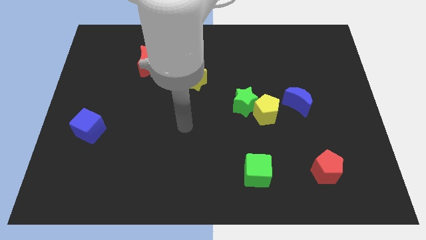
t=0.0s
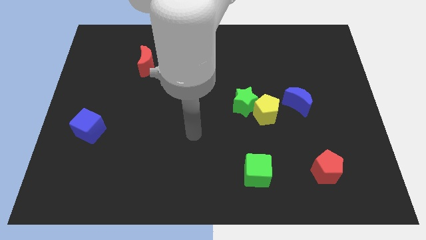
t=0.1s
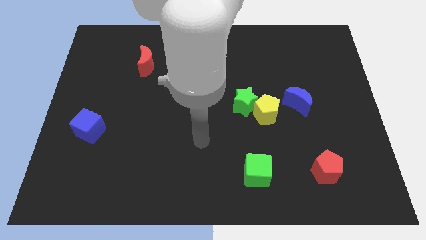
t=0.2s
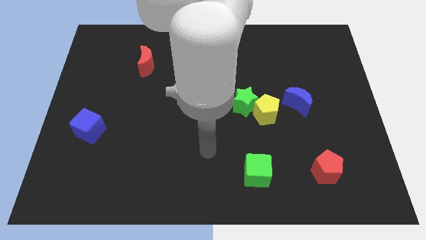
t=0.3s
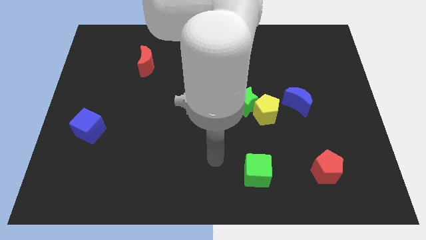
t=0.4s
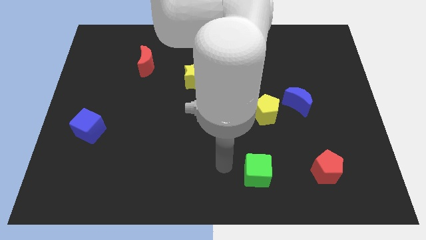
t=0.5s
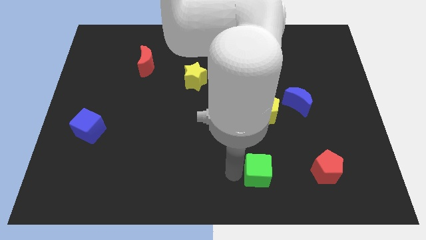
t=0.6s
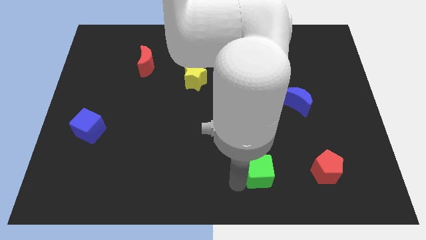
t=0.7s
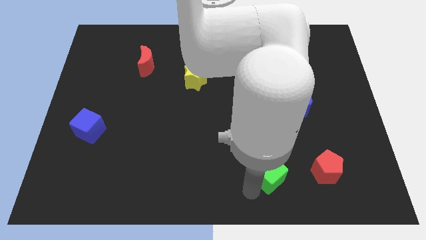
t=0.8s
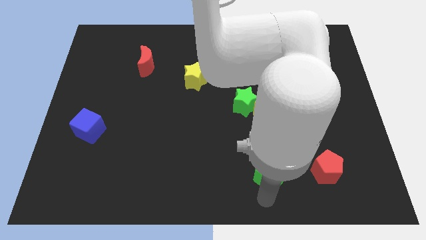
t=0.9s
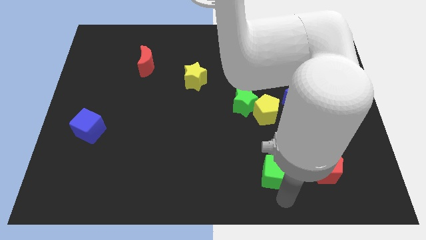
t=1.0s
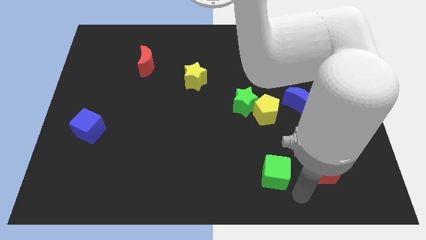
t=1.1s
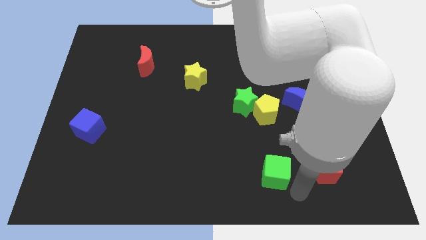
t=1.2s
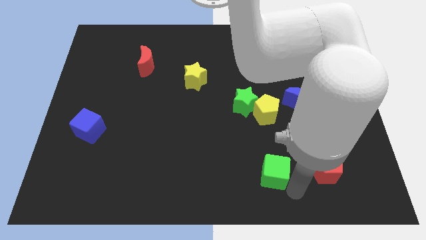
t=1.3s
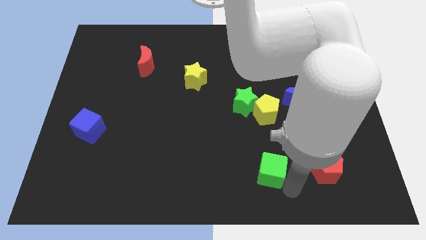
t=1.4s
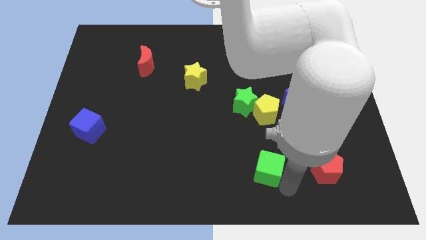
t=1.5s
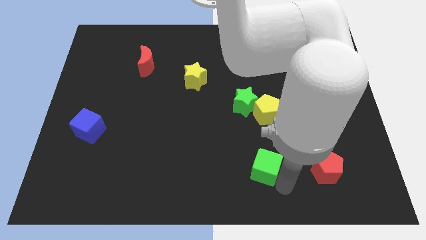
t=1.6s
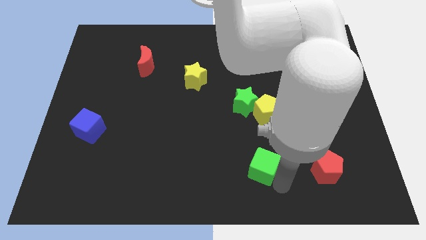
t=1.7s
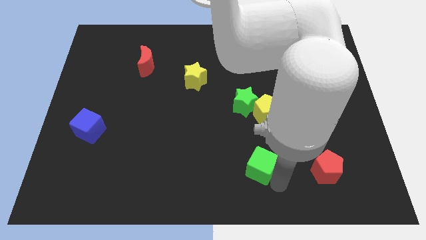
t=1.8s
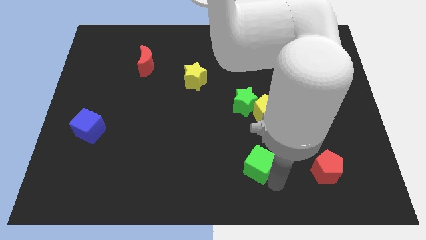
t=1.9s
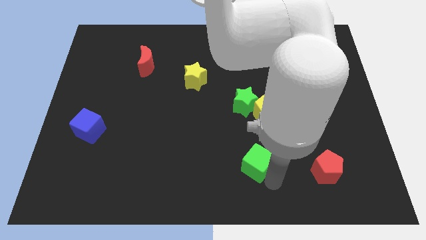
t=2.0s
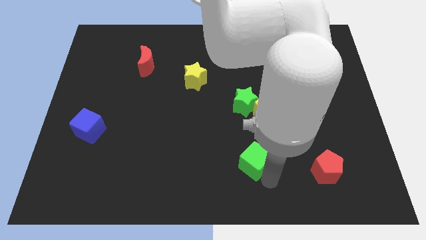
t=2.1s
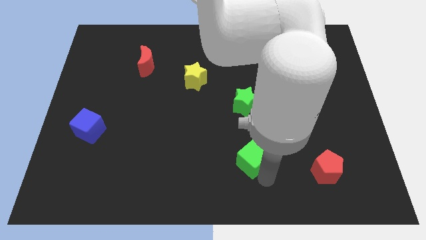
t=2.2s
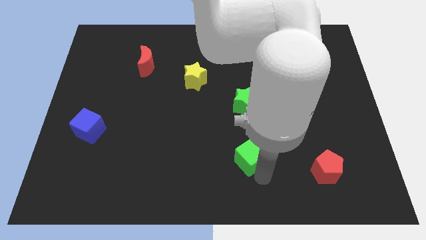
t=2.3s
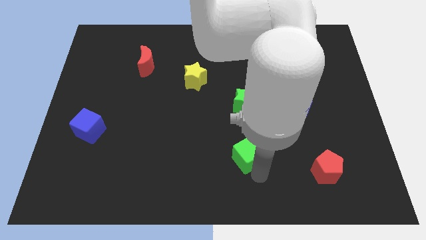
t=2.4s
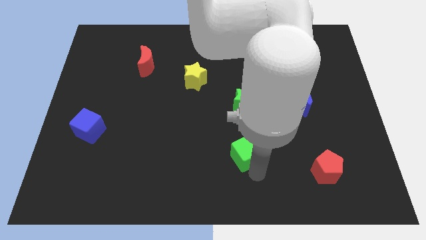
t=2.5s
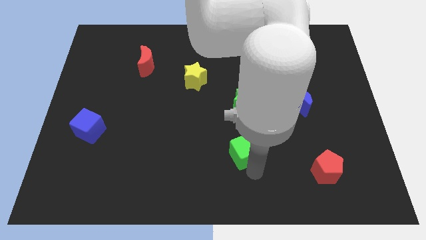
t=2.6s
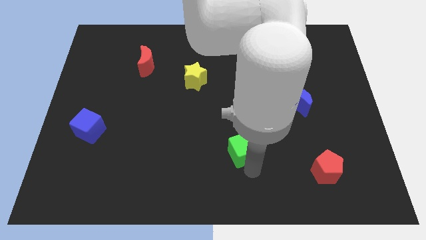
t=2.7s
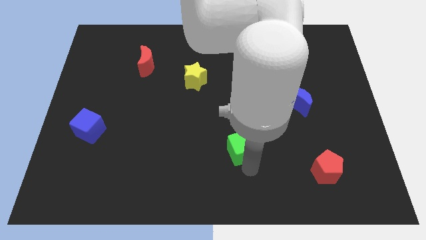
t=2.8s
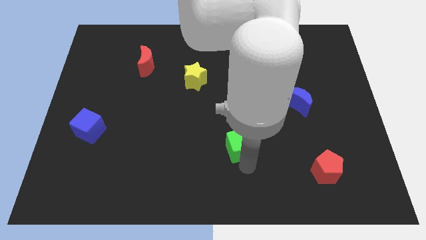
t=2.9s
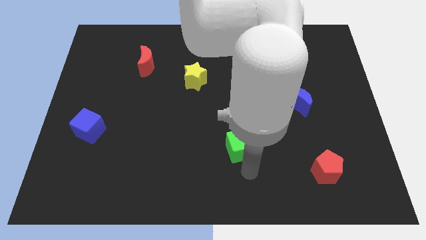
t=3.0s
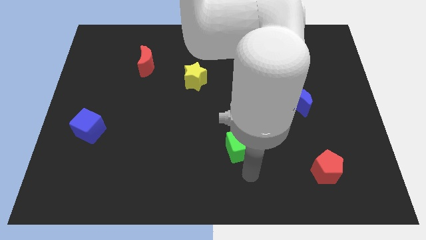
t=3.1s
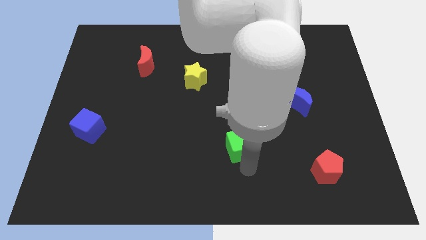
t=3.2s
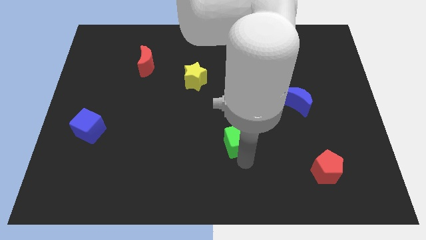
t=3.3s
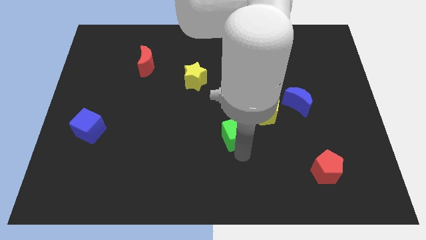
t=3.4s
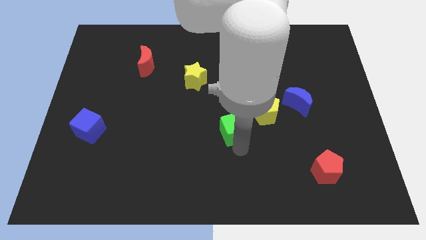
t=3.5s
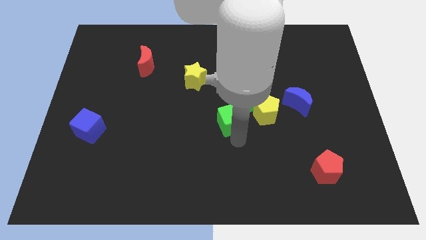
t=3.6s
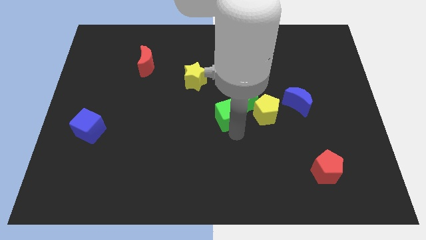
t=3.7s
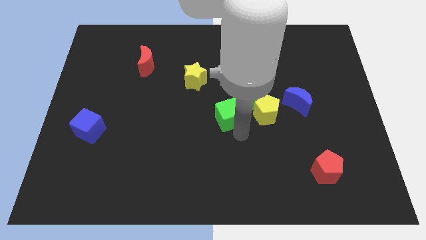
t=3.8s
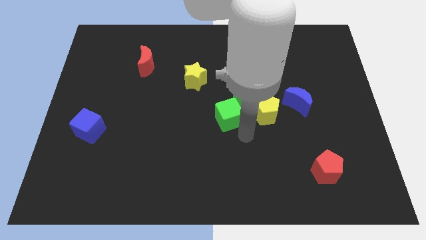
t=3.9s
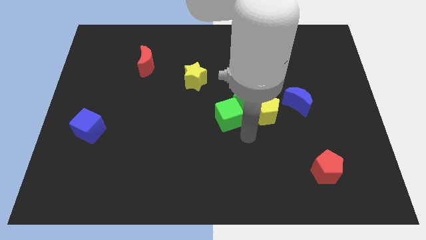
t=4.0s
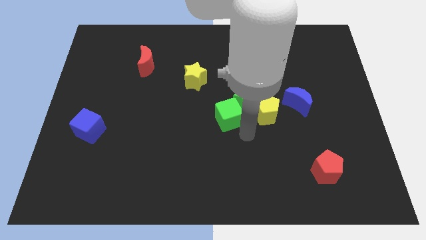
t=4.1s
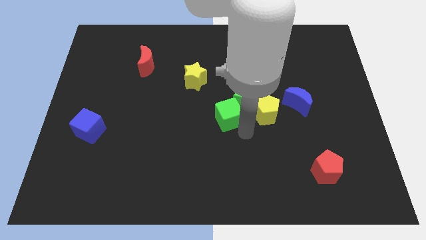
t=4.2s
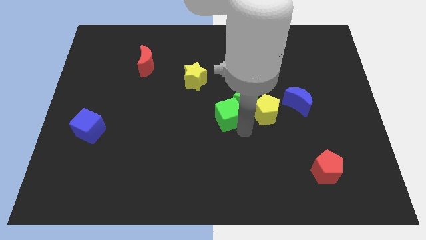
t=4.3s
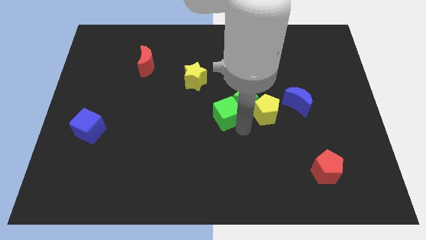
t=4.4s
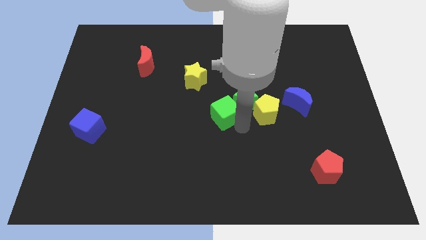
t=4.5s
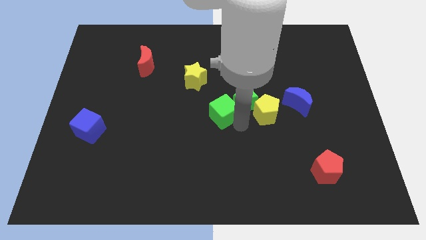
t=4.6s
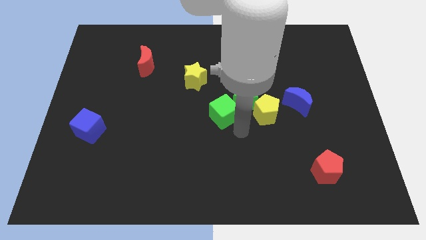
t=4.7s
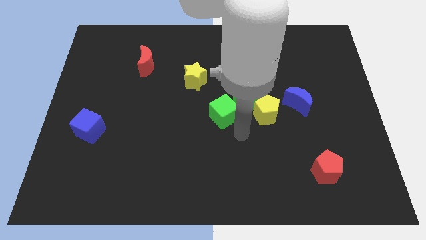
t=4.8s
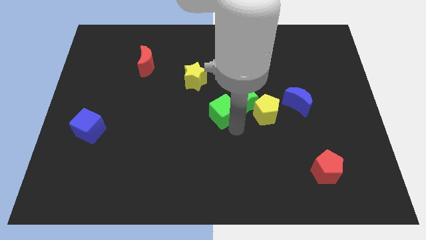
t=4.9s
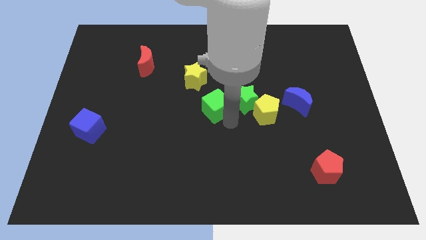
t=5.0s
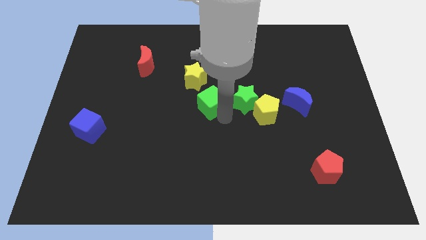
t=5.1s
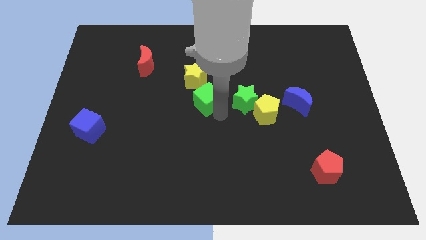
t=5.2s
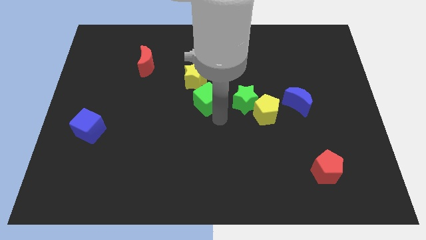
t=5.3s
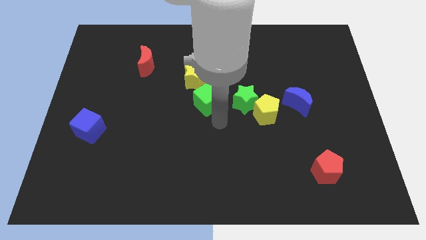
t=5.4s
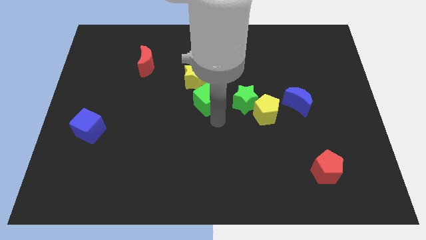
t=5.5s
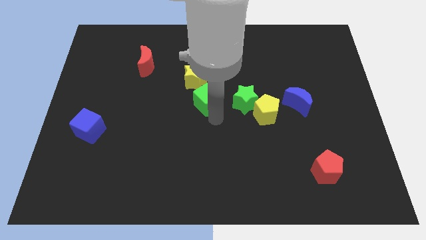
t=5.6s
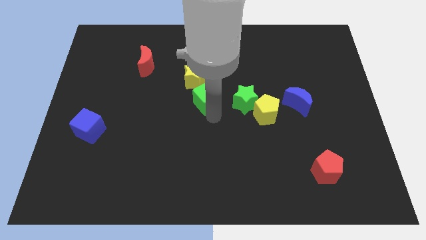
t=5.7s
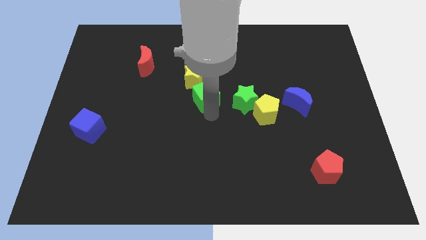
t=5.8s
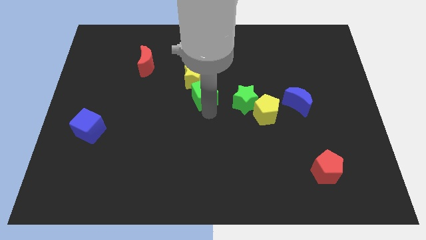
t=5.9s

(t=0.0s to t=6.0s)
push the green cube close to the yellow star
